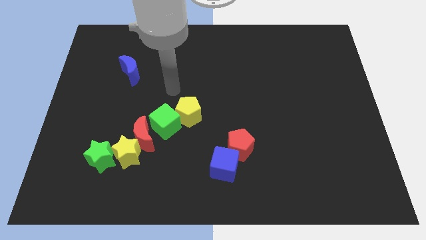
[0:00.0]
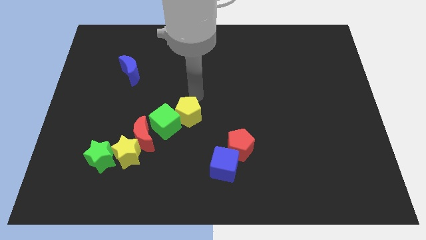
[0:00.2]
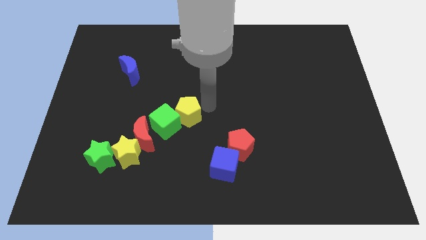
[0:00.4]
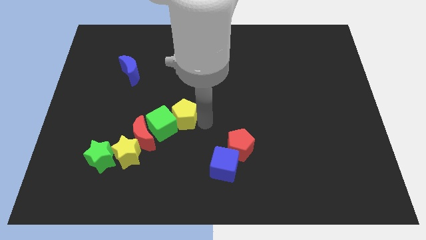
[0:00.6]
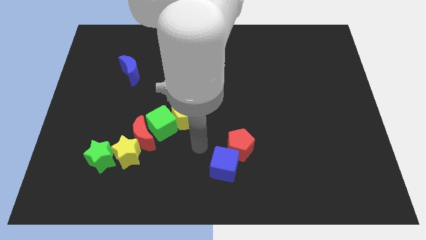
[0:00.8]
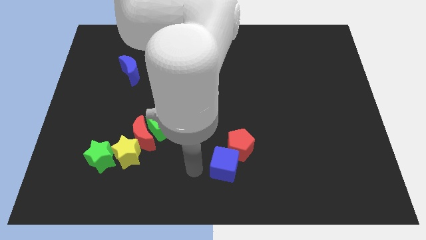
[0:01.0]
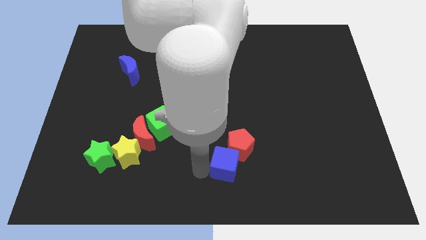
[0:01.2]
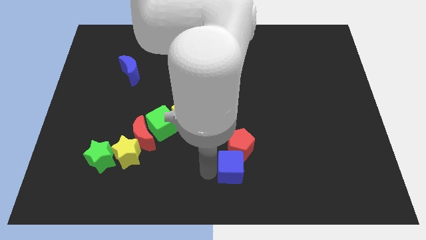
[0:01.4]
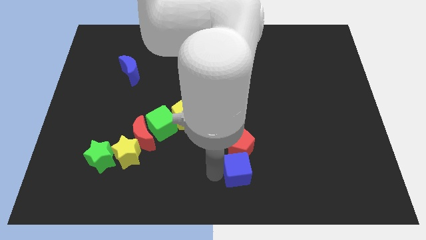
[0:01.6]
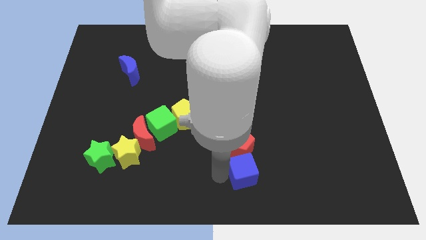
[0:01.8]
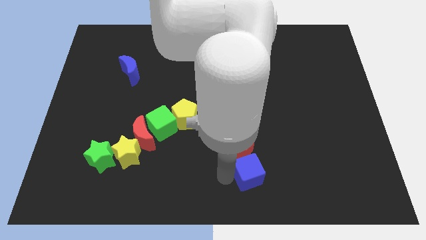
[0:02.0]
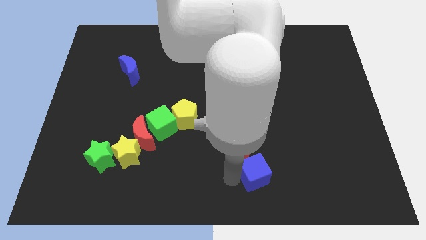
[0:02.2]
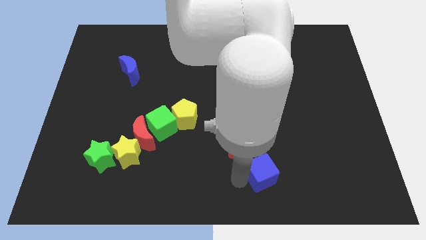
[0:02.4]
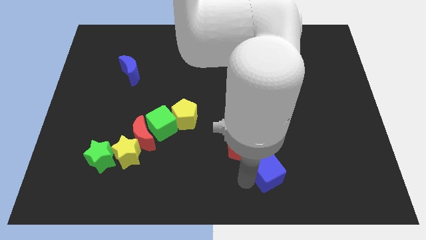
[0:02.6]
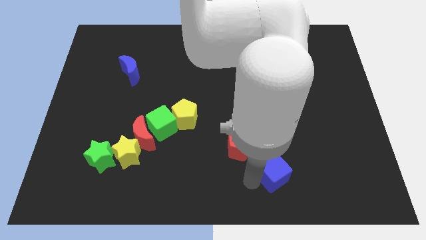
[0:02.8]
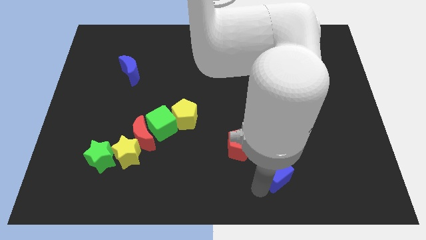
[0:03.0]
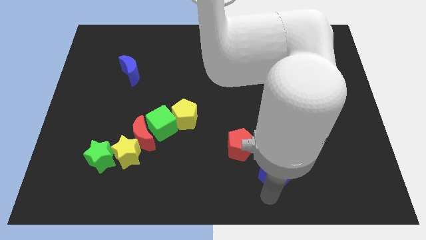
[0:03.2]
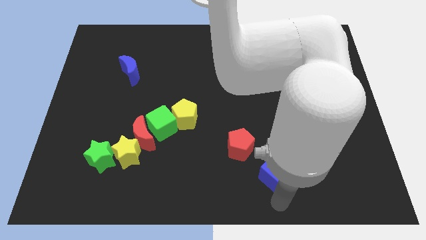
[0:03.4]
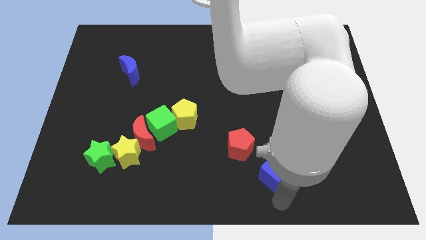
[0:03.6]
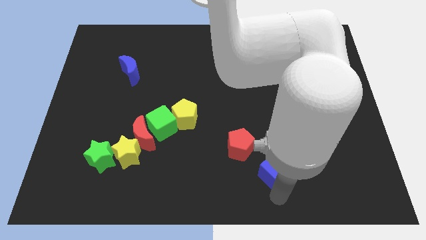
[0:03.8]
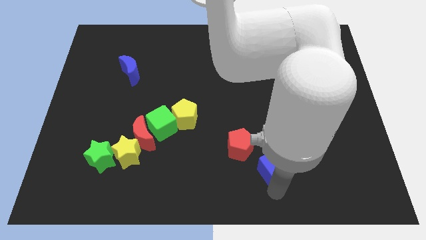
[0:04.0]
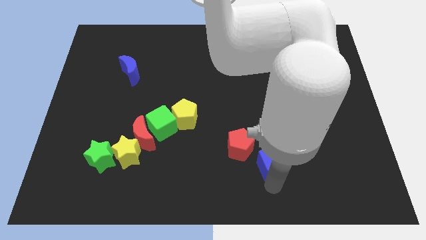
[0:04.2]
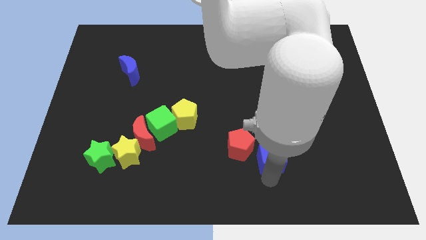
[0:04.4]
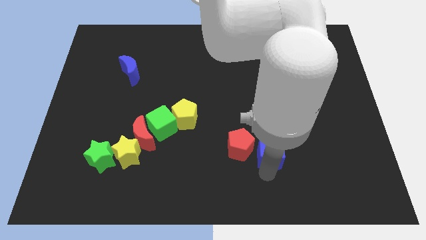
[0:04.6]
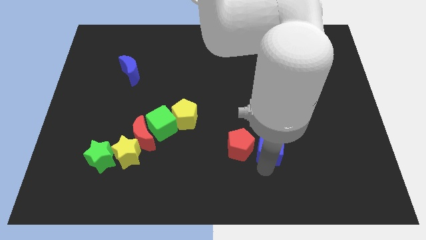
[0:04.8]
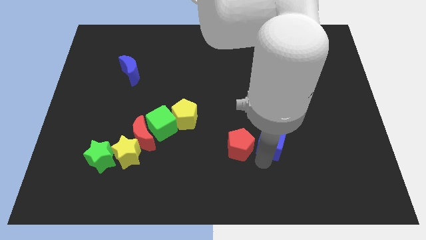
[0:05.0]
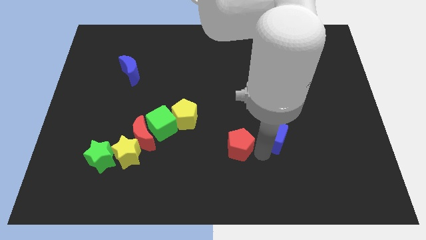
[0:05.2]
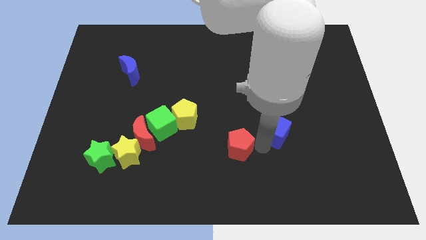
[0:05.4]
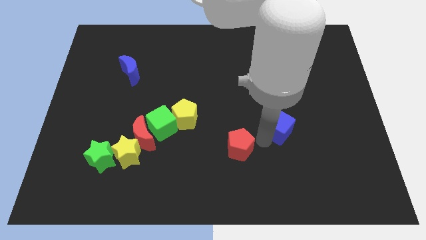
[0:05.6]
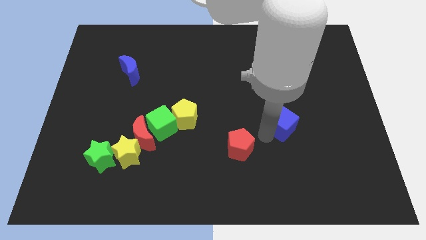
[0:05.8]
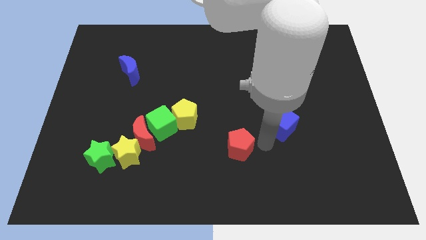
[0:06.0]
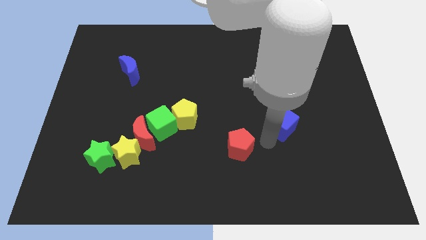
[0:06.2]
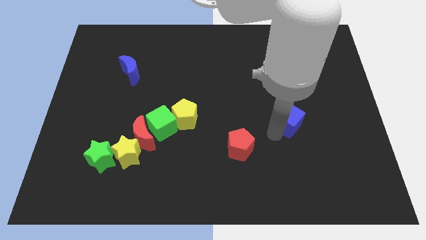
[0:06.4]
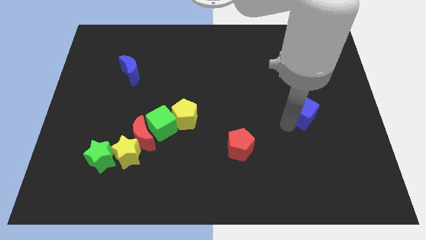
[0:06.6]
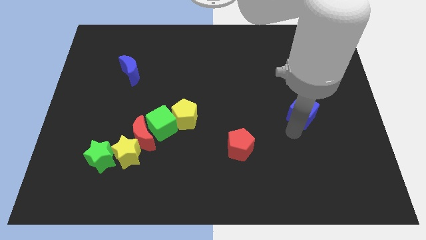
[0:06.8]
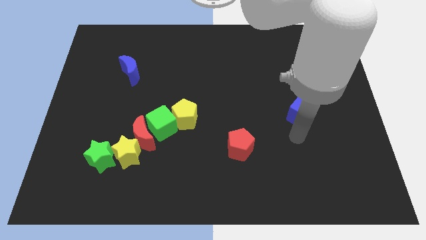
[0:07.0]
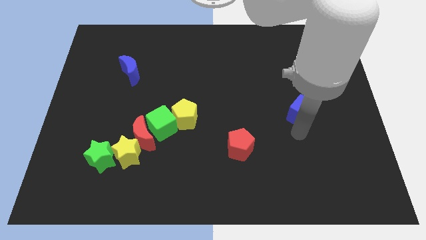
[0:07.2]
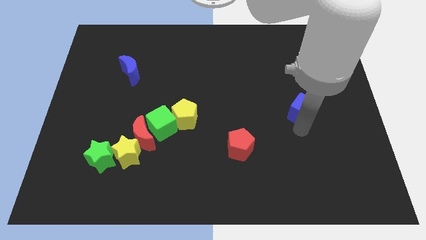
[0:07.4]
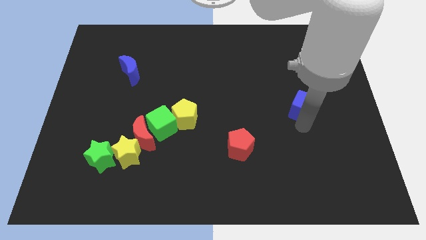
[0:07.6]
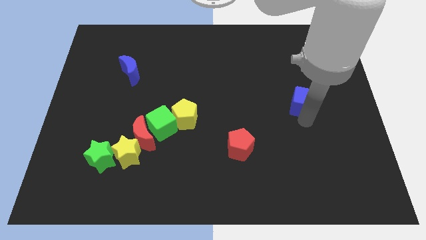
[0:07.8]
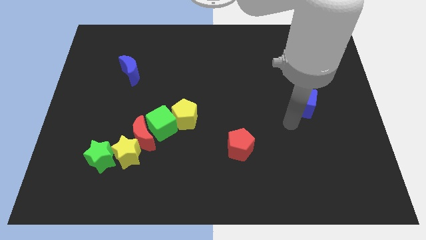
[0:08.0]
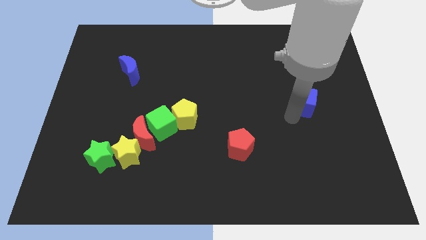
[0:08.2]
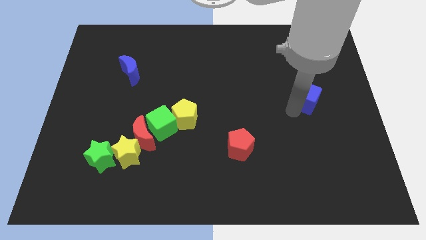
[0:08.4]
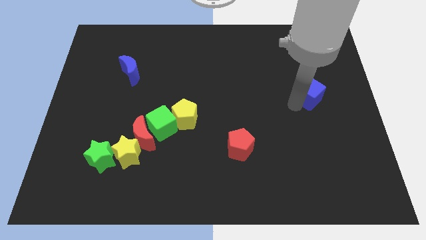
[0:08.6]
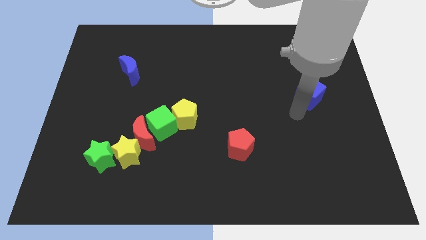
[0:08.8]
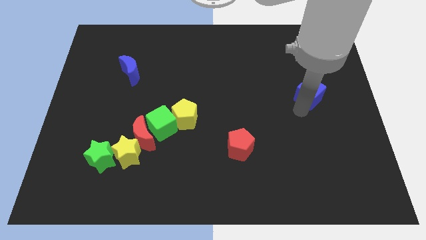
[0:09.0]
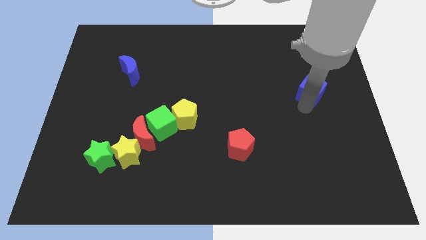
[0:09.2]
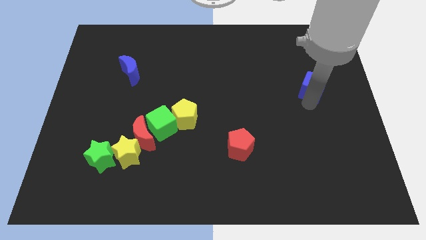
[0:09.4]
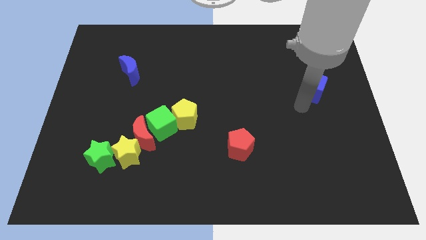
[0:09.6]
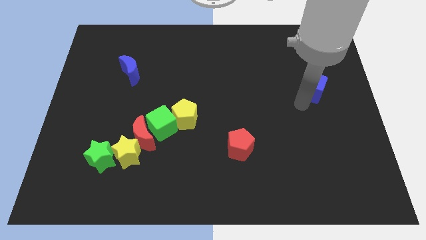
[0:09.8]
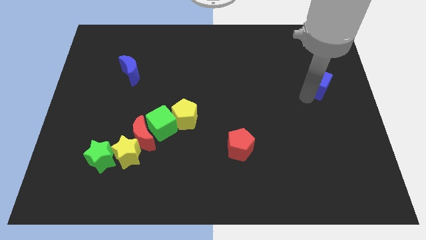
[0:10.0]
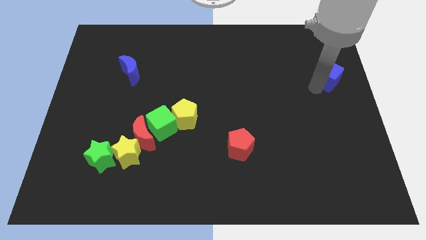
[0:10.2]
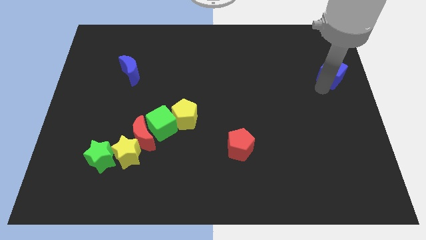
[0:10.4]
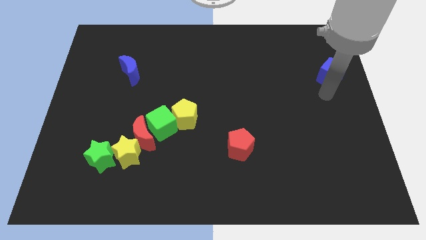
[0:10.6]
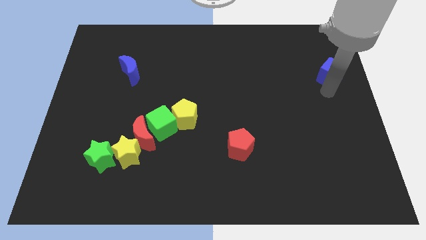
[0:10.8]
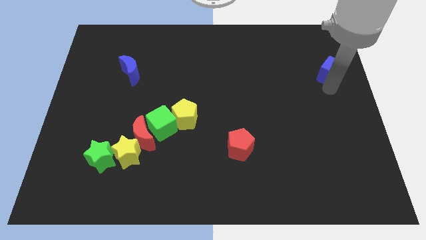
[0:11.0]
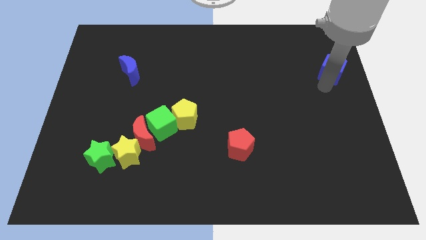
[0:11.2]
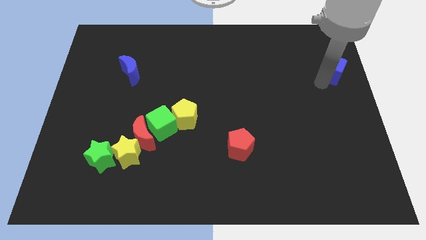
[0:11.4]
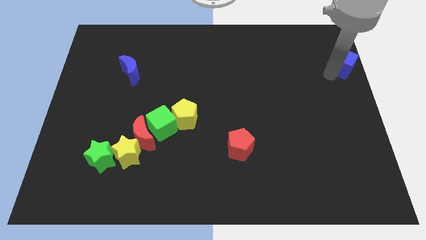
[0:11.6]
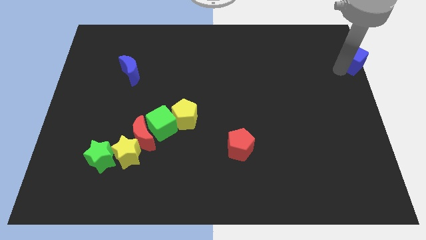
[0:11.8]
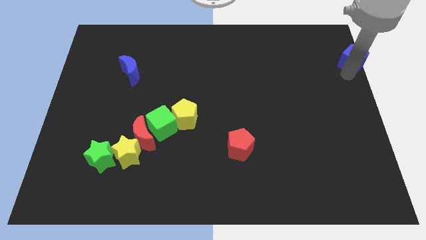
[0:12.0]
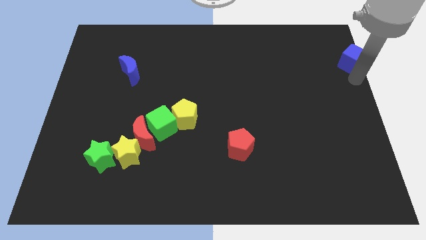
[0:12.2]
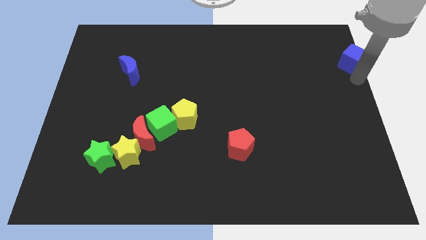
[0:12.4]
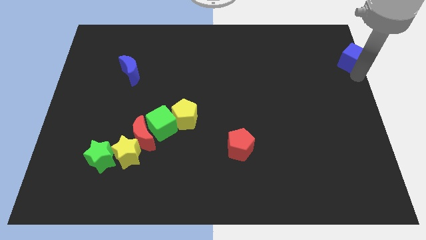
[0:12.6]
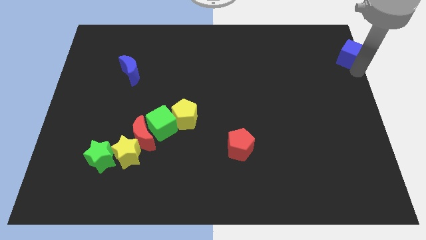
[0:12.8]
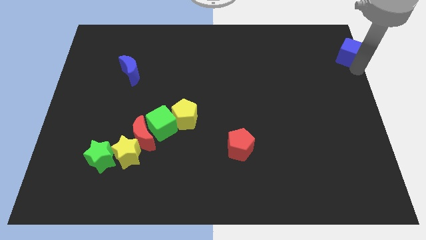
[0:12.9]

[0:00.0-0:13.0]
slide the blue cube to the top right of the board
